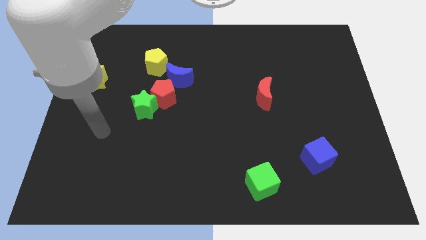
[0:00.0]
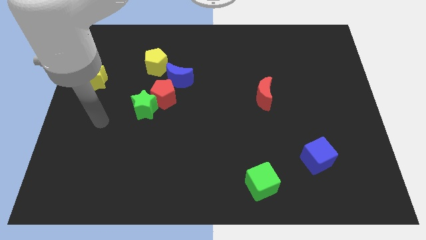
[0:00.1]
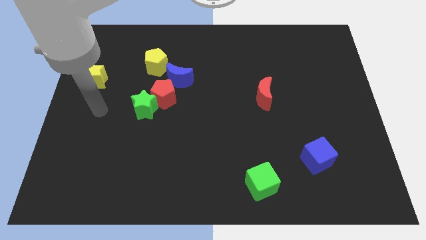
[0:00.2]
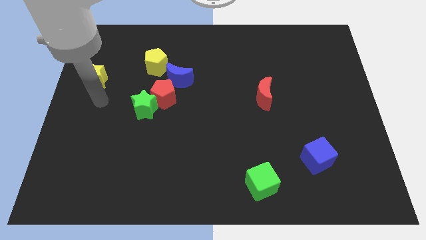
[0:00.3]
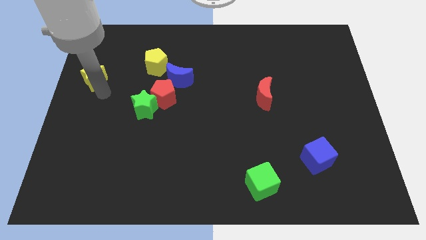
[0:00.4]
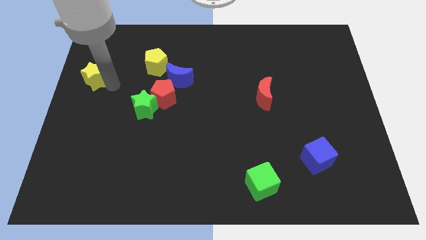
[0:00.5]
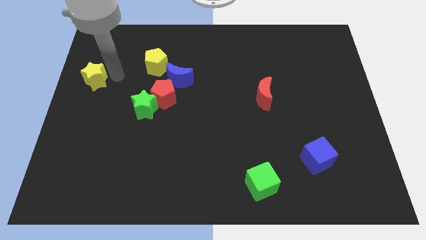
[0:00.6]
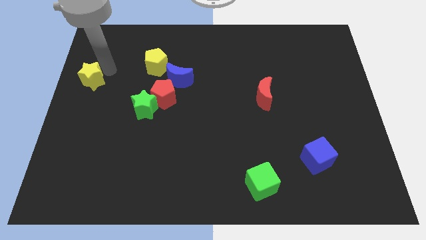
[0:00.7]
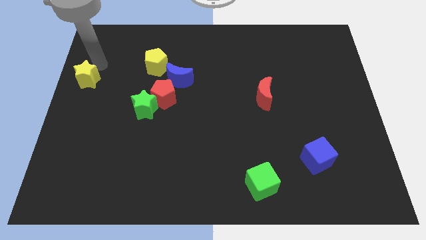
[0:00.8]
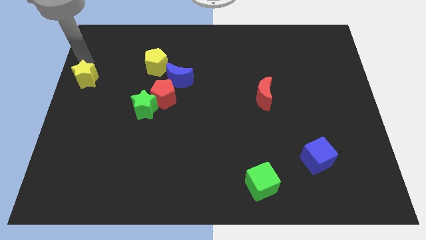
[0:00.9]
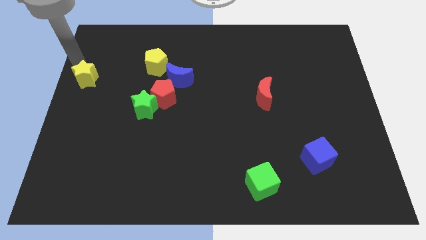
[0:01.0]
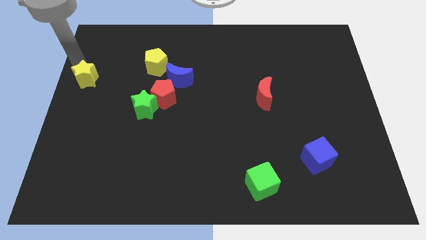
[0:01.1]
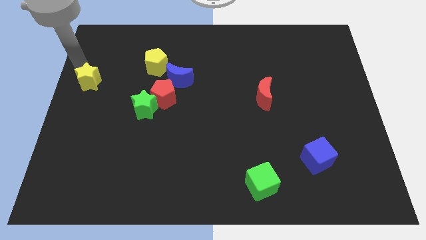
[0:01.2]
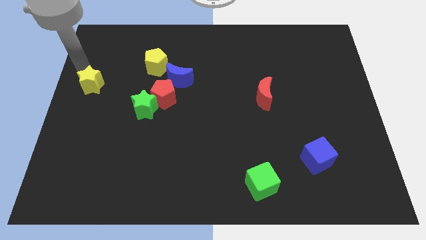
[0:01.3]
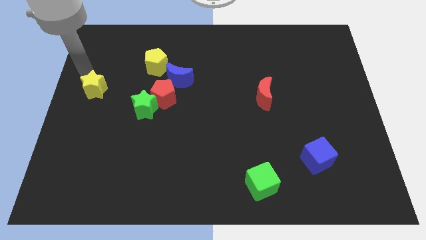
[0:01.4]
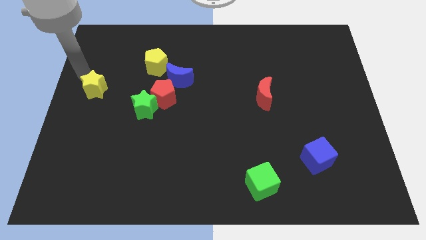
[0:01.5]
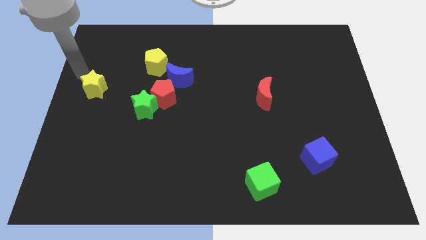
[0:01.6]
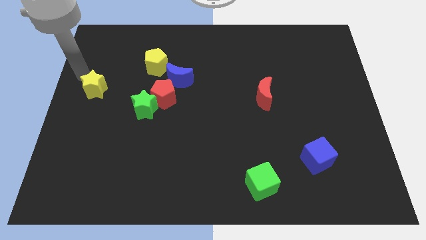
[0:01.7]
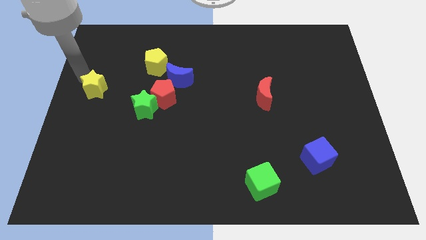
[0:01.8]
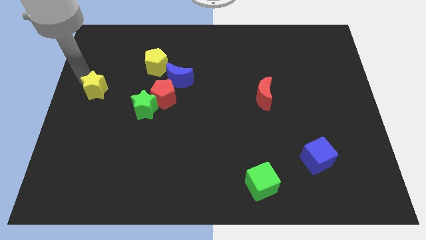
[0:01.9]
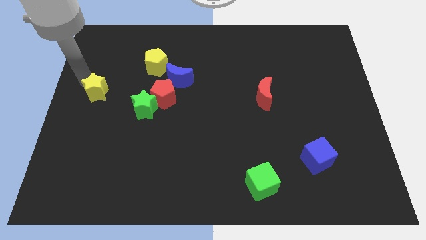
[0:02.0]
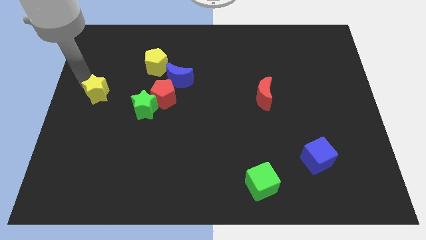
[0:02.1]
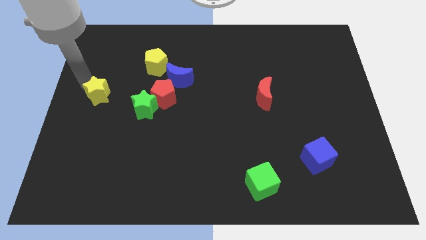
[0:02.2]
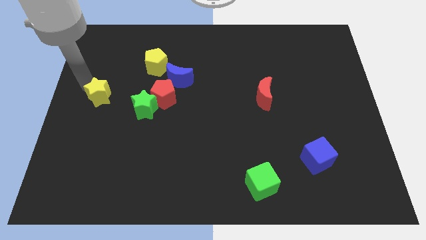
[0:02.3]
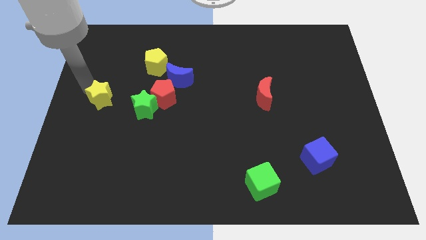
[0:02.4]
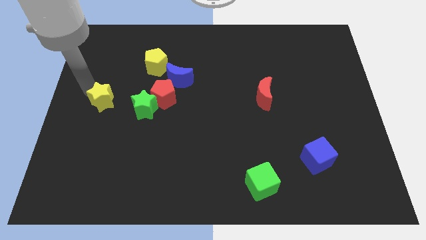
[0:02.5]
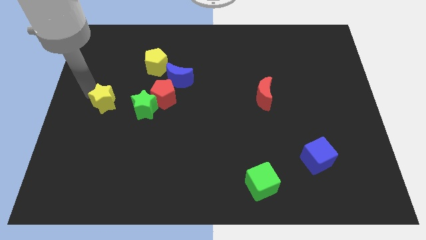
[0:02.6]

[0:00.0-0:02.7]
slightly push the yellow star down and right diagonally

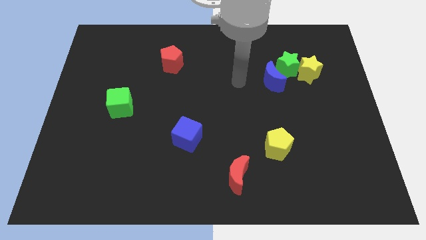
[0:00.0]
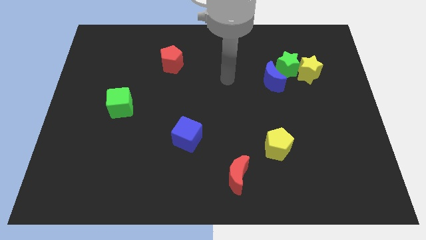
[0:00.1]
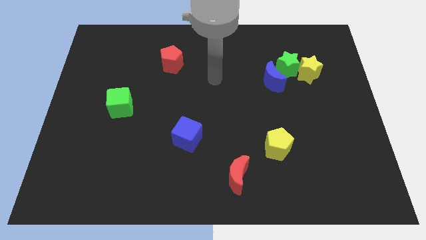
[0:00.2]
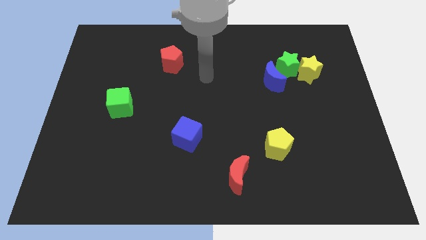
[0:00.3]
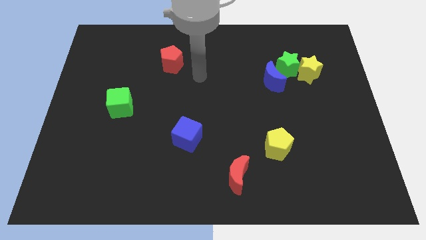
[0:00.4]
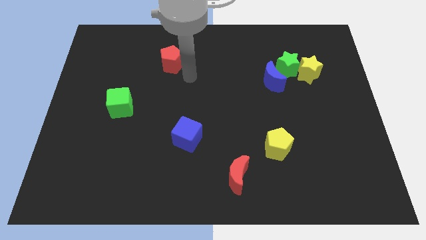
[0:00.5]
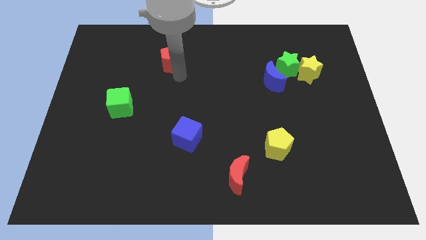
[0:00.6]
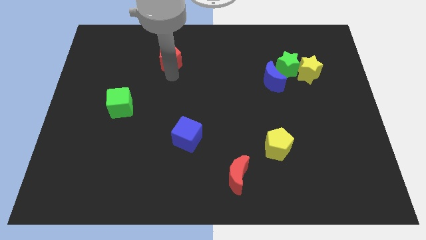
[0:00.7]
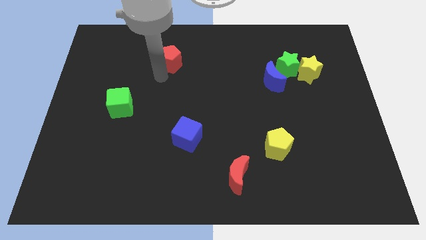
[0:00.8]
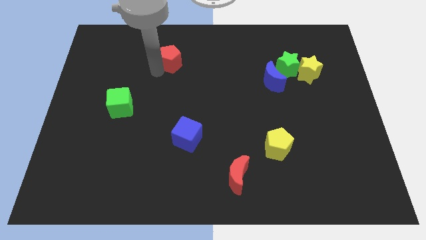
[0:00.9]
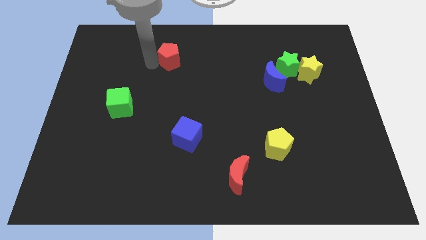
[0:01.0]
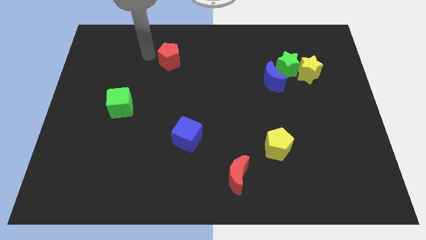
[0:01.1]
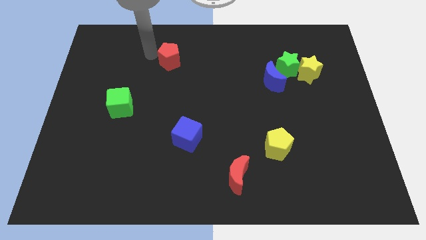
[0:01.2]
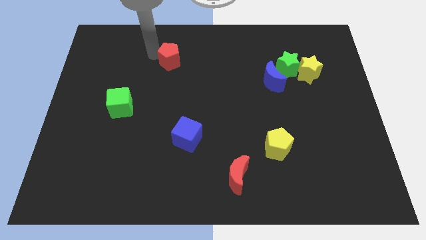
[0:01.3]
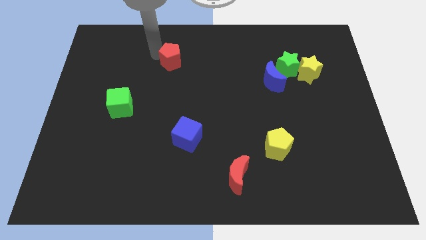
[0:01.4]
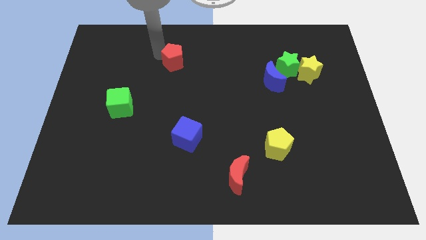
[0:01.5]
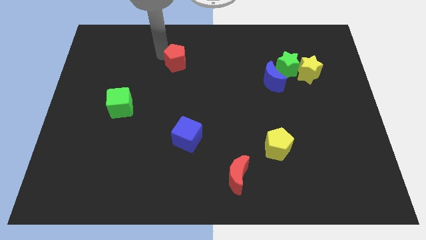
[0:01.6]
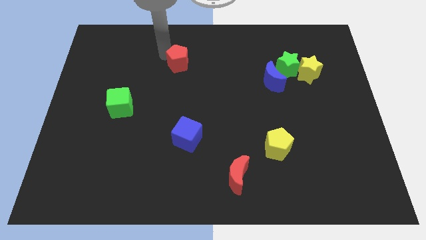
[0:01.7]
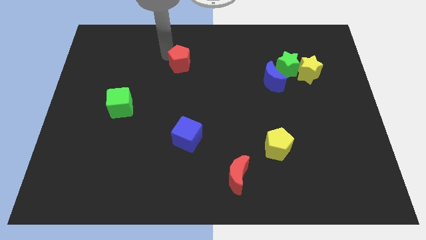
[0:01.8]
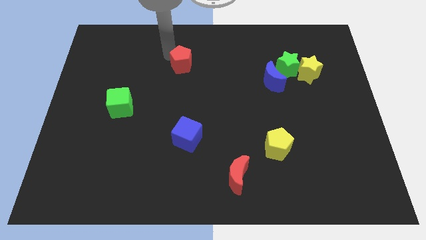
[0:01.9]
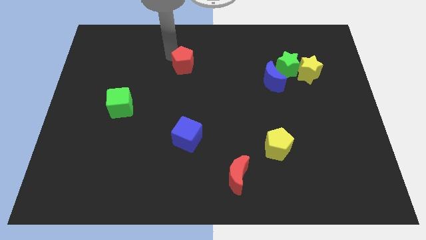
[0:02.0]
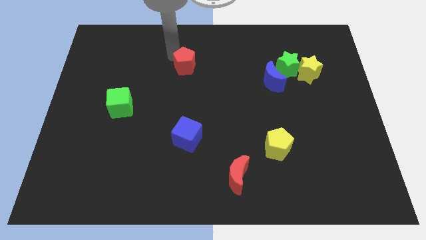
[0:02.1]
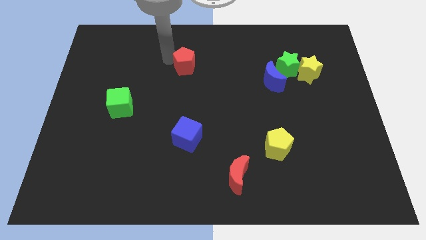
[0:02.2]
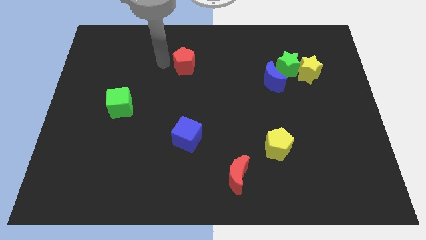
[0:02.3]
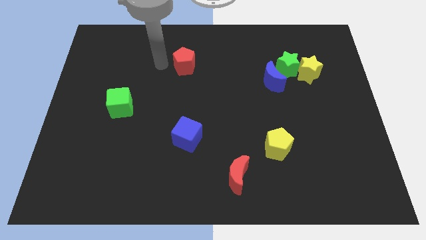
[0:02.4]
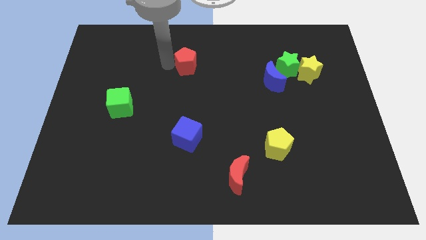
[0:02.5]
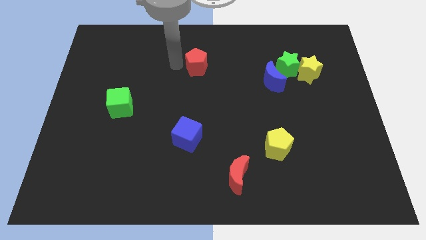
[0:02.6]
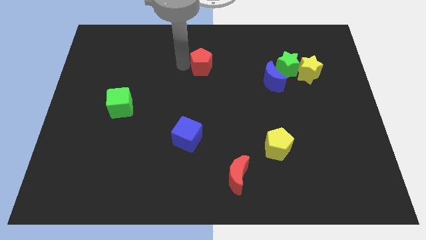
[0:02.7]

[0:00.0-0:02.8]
slide the red pentagon a little bit right

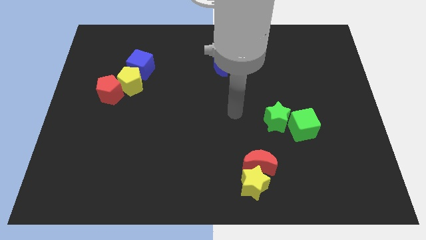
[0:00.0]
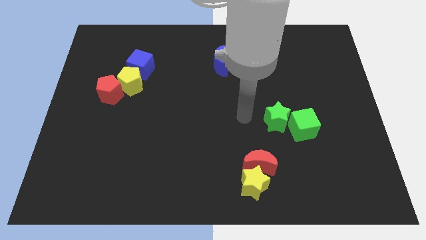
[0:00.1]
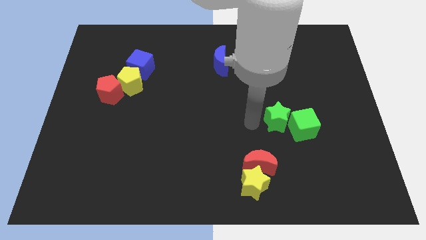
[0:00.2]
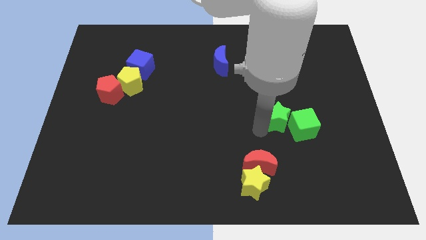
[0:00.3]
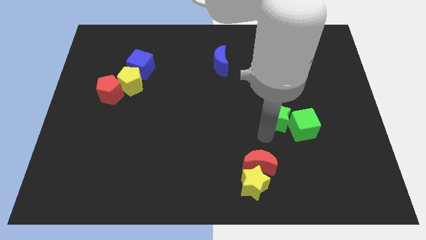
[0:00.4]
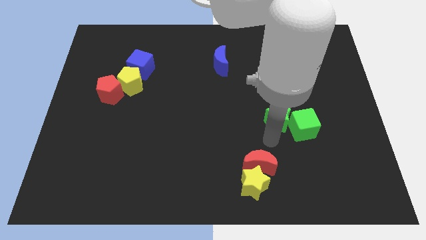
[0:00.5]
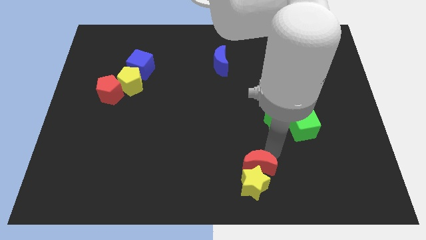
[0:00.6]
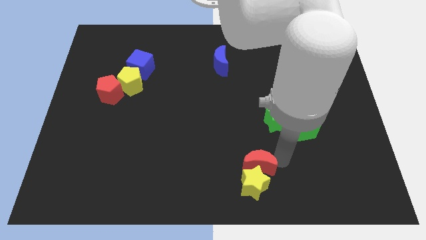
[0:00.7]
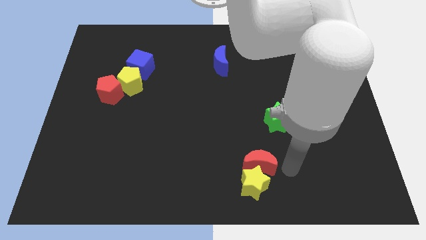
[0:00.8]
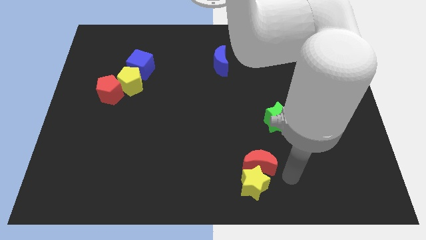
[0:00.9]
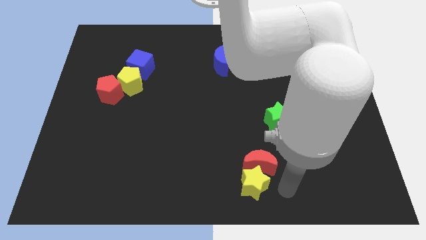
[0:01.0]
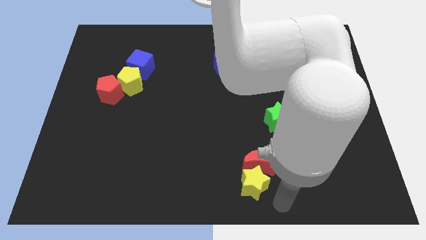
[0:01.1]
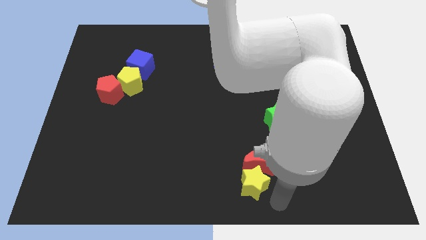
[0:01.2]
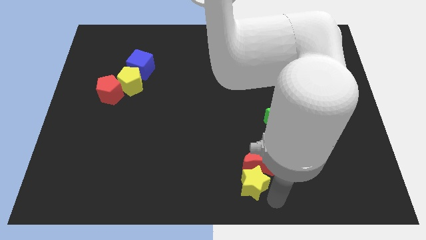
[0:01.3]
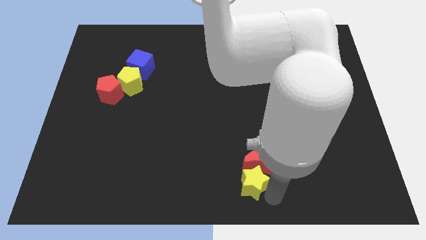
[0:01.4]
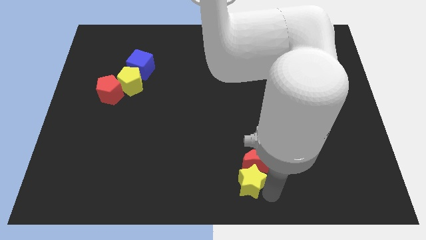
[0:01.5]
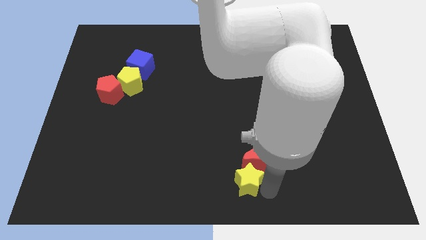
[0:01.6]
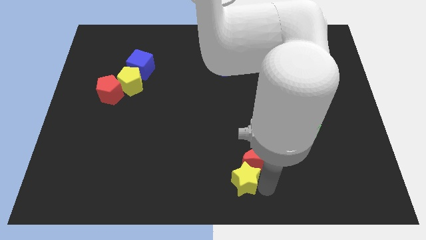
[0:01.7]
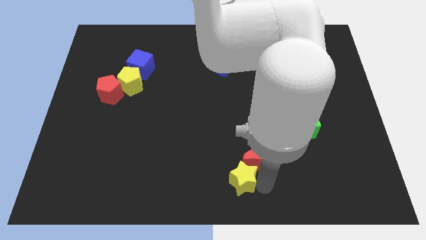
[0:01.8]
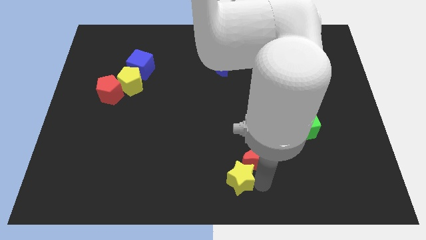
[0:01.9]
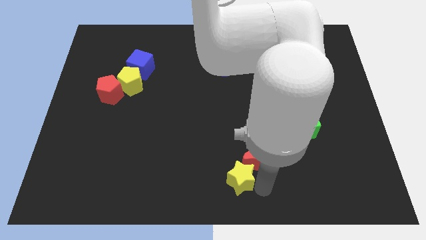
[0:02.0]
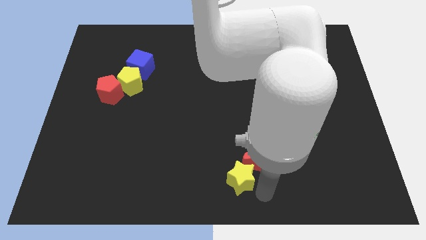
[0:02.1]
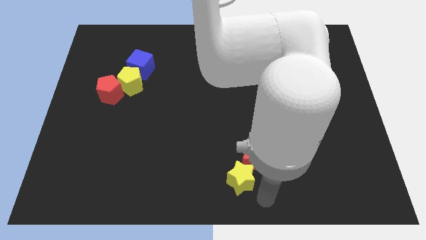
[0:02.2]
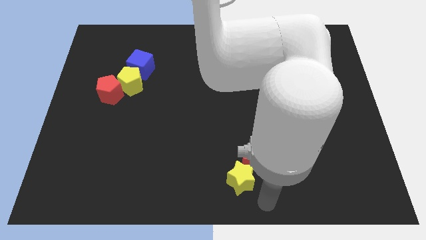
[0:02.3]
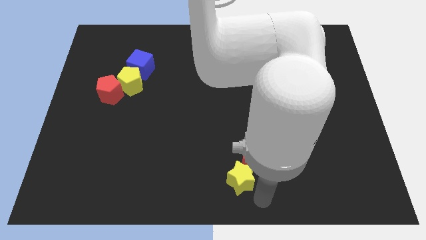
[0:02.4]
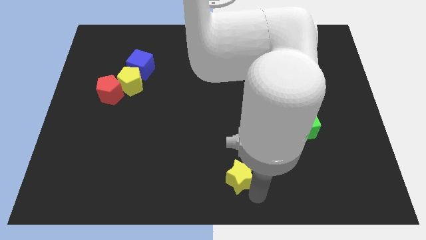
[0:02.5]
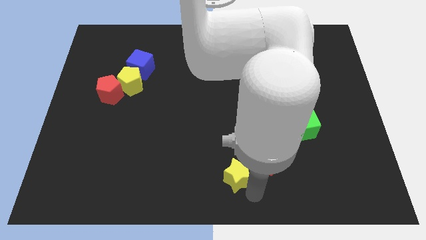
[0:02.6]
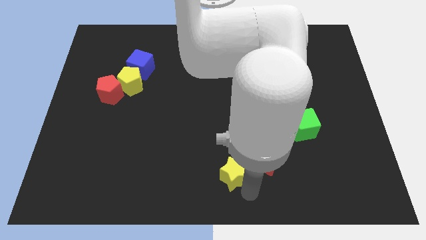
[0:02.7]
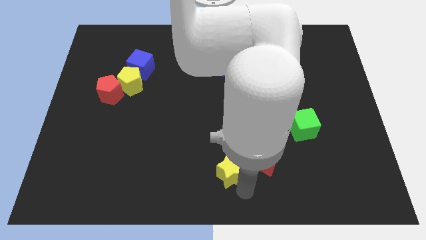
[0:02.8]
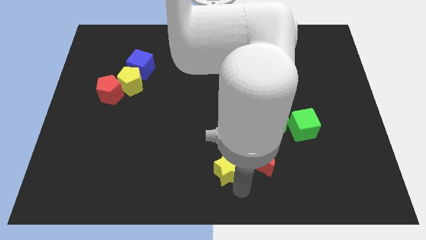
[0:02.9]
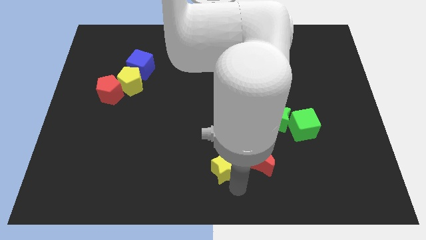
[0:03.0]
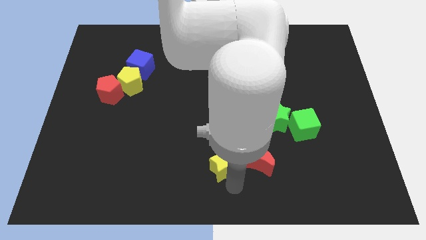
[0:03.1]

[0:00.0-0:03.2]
move the yellow star slightly upwards and to the left diagonally
